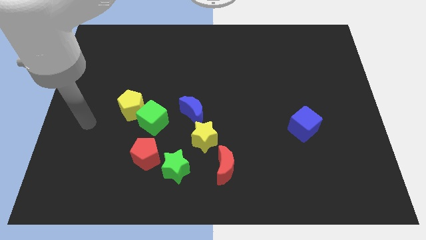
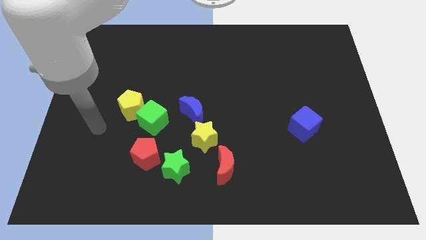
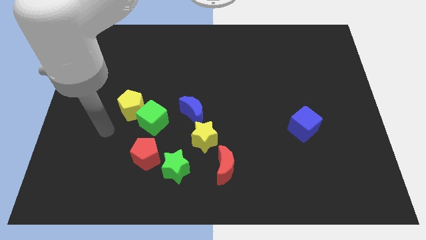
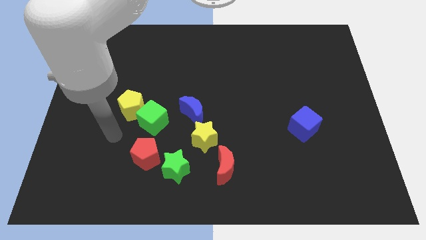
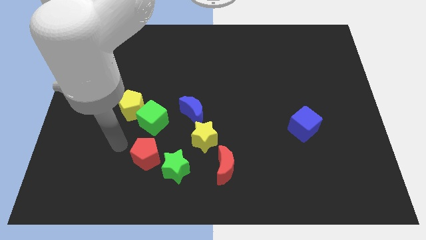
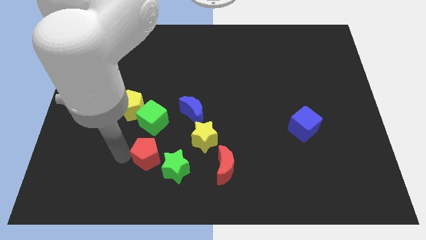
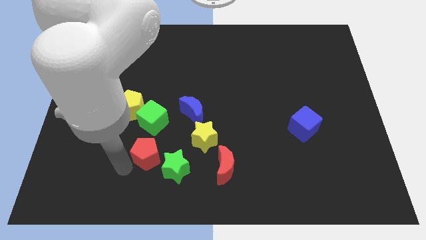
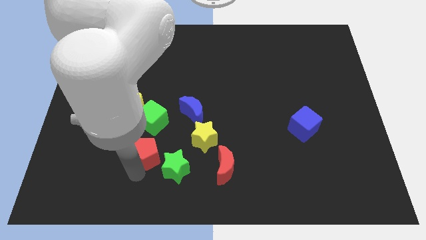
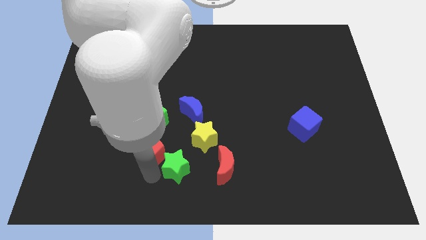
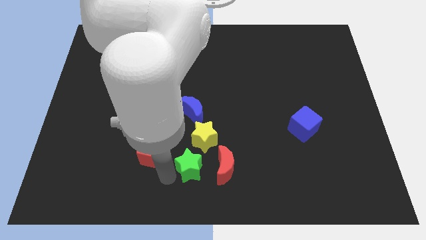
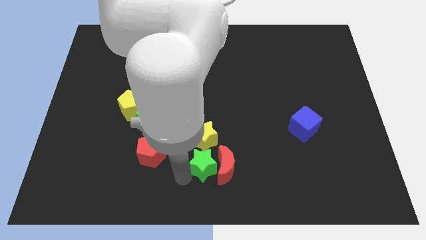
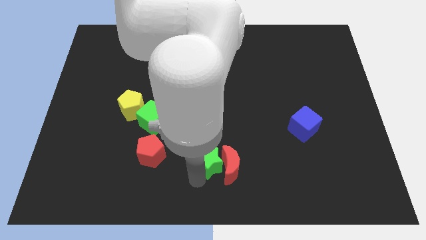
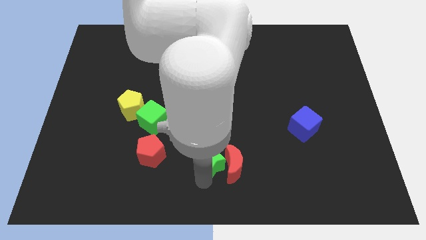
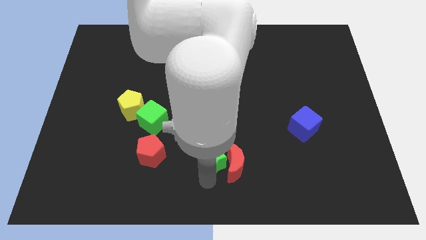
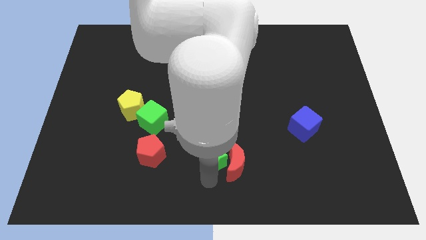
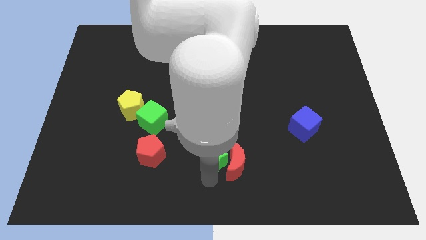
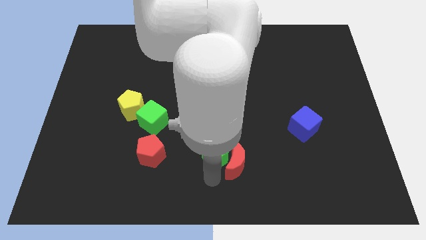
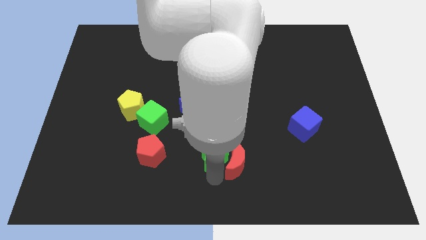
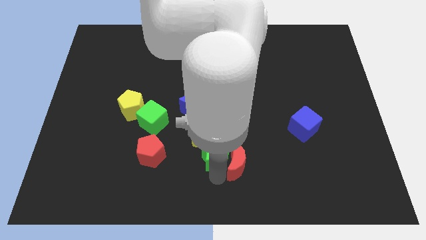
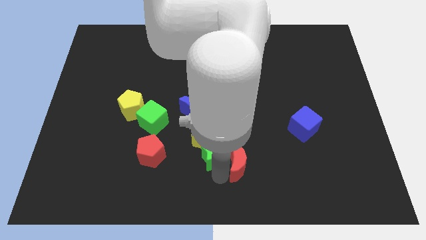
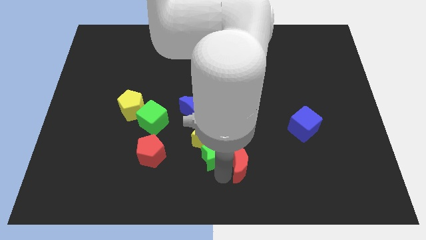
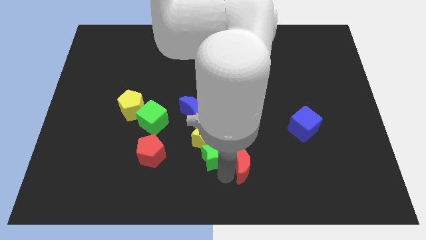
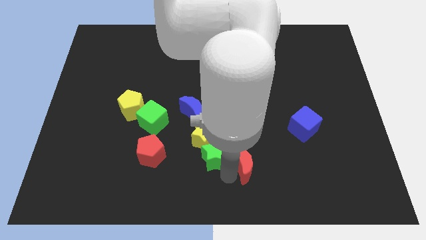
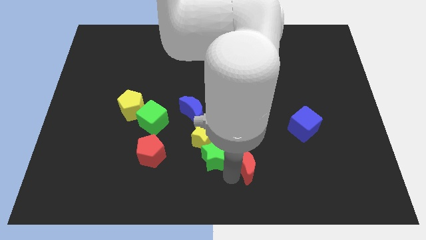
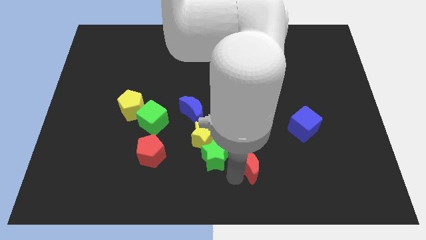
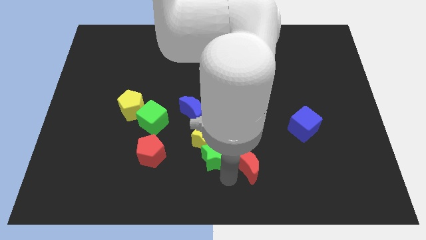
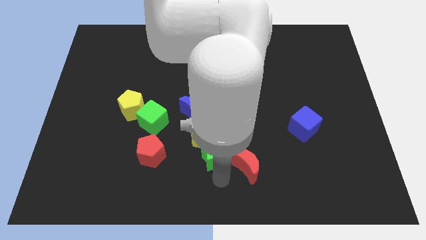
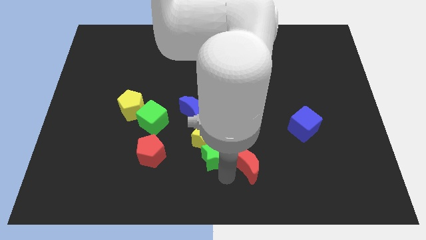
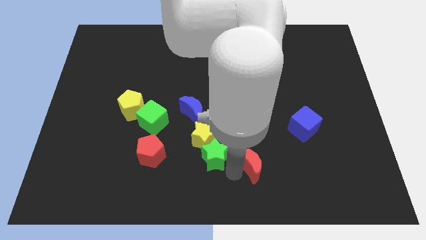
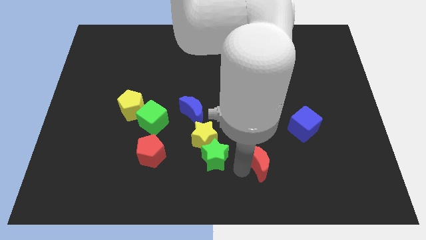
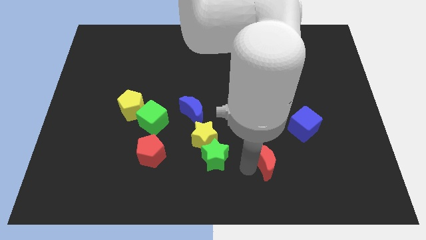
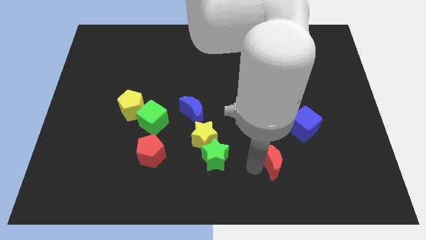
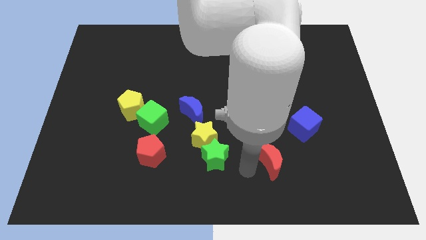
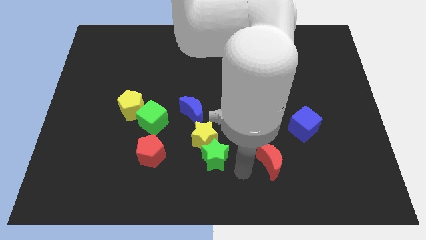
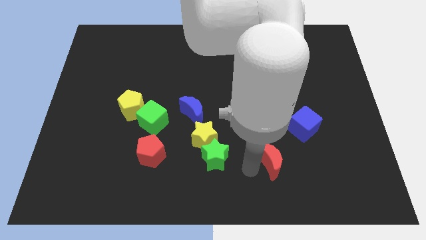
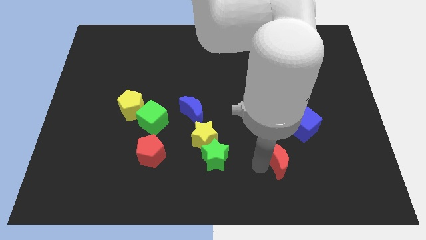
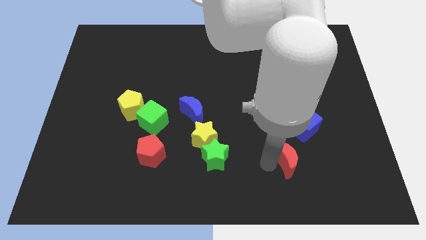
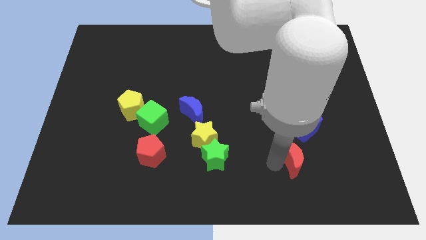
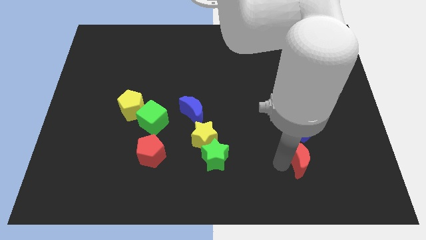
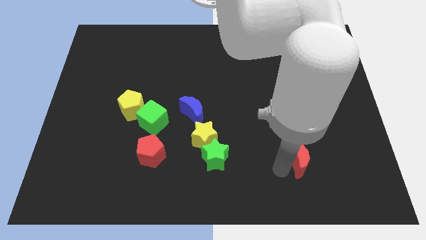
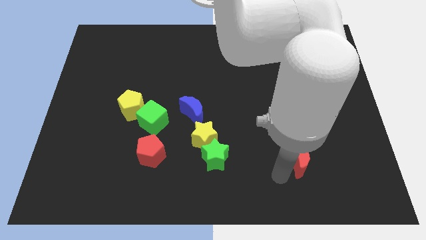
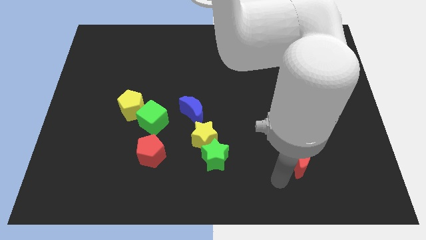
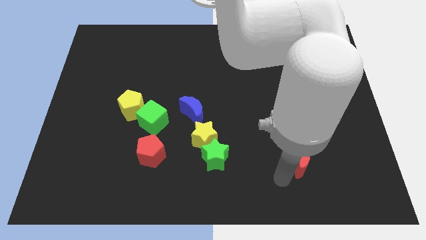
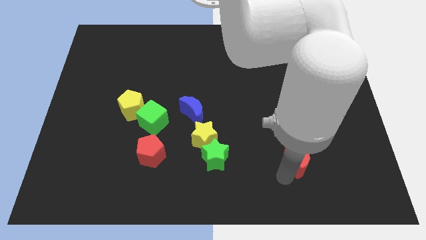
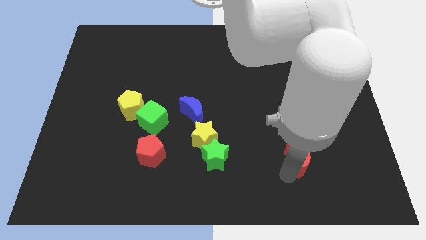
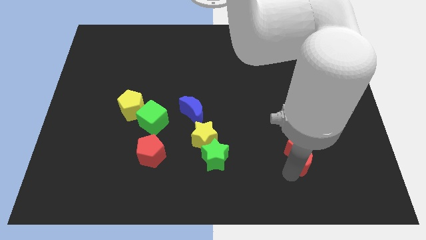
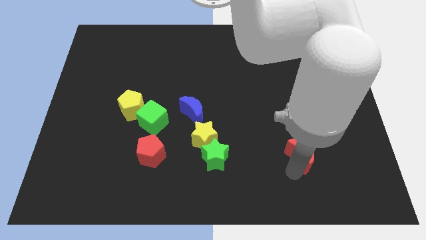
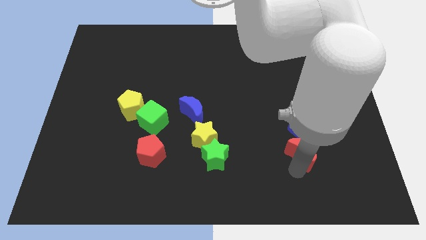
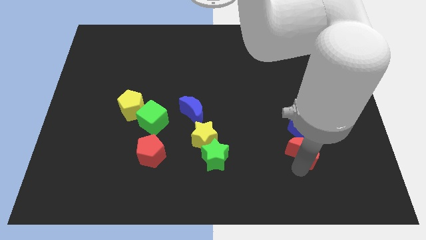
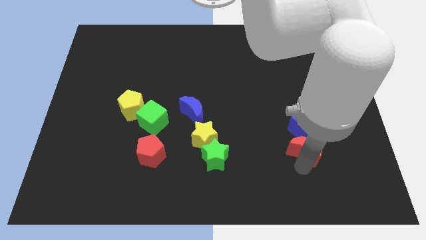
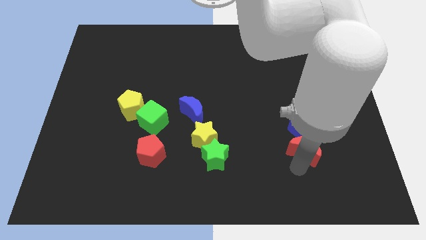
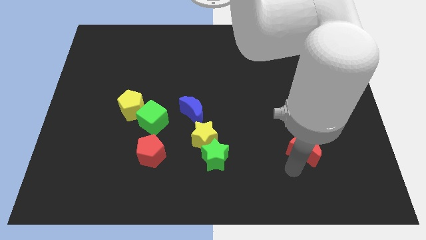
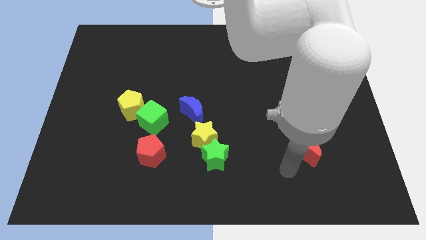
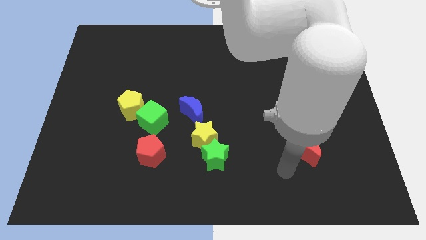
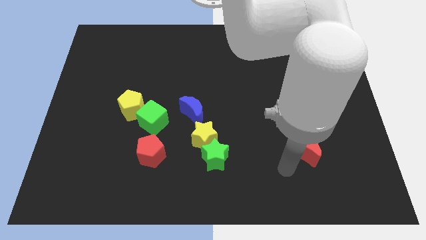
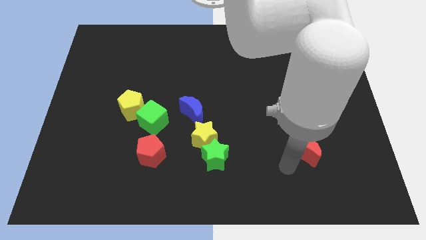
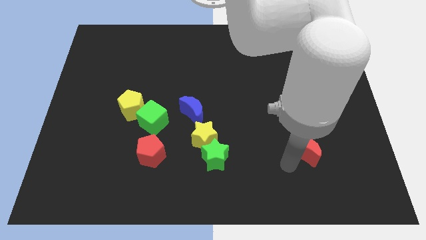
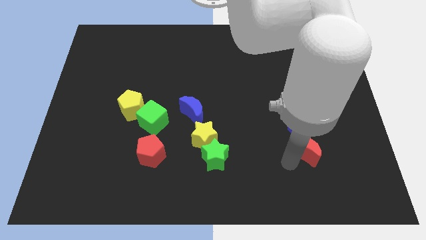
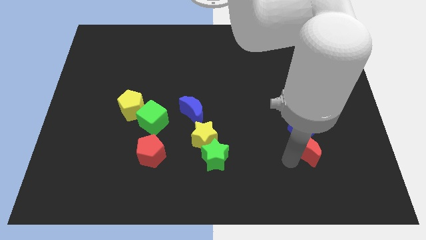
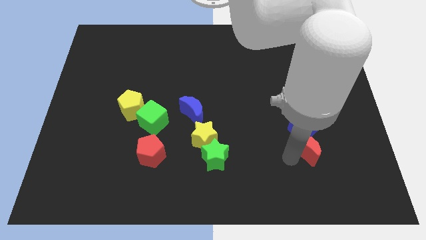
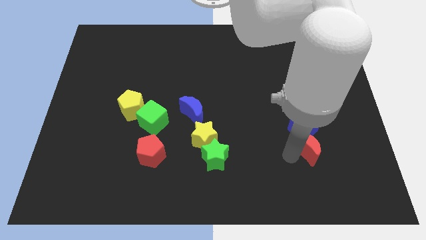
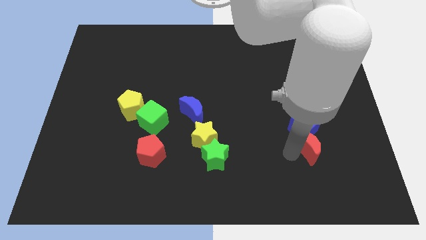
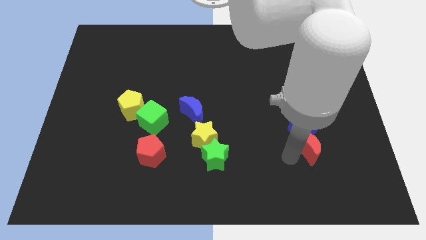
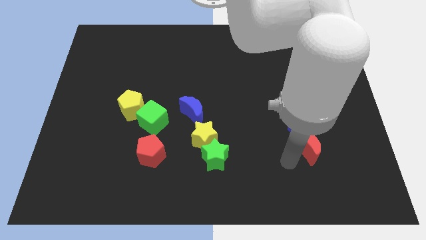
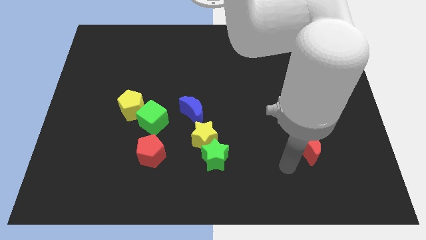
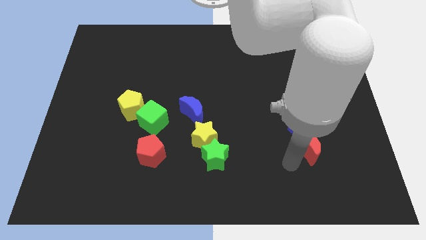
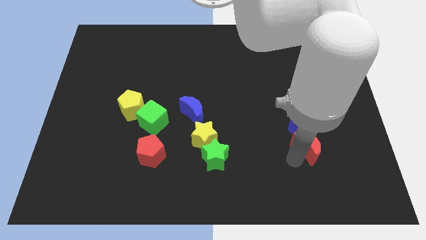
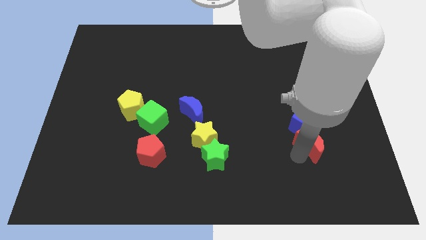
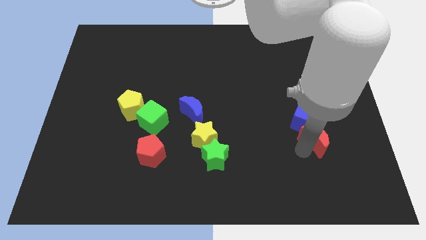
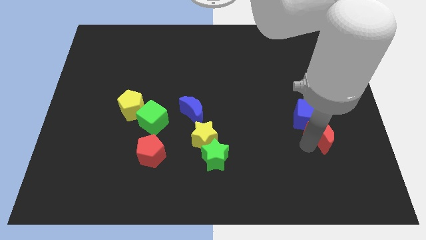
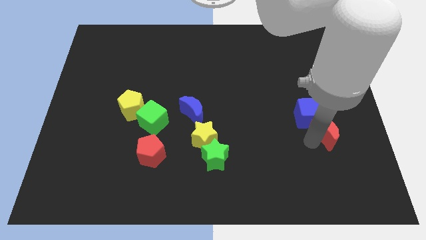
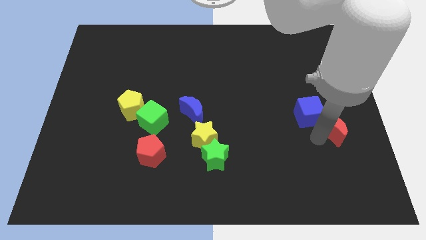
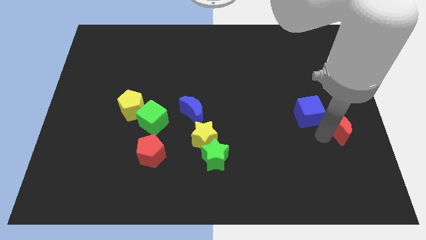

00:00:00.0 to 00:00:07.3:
put the red moon to the right side of the board
